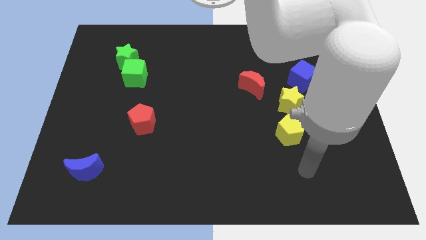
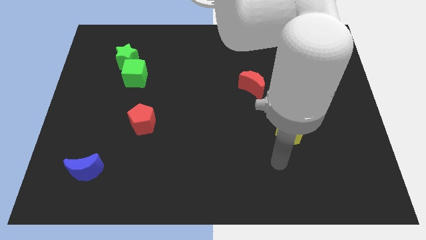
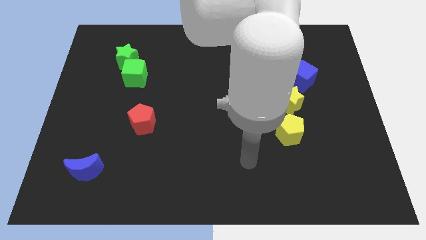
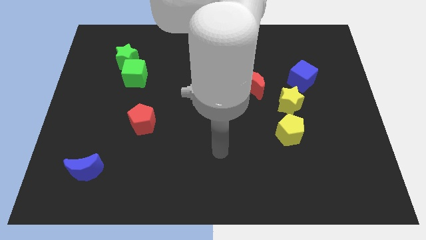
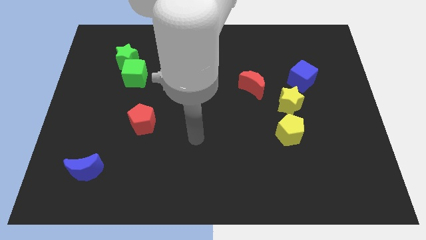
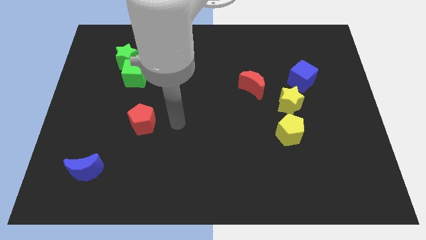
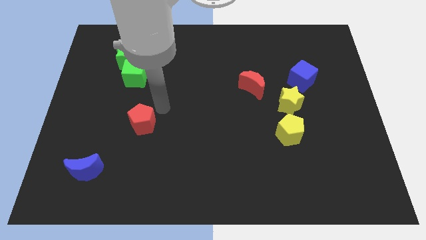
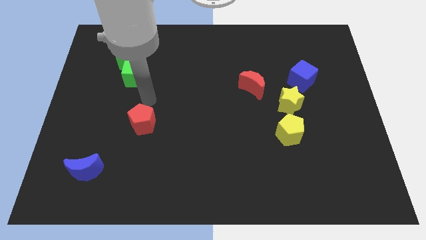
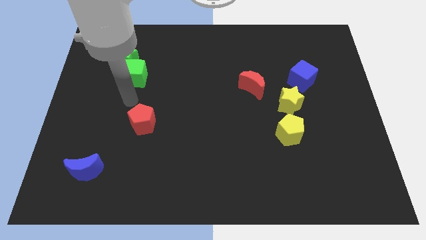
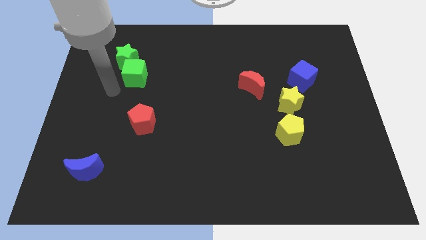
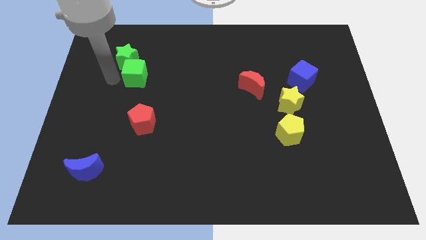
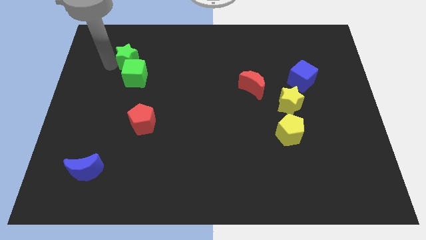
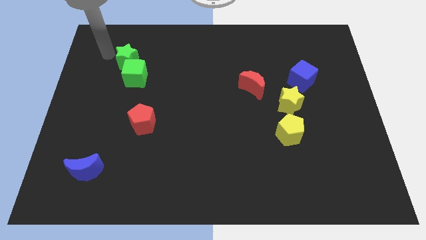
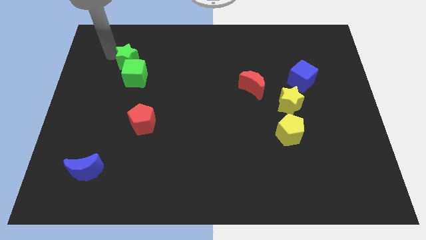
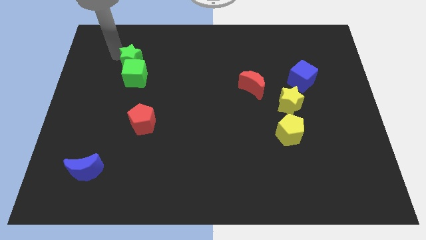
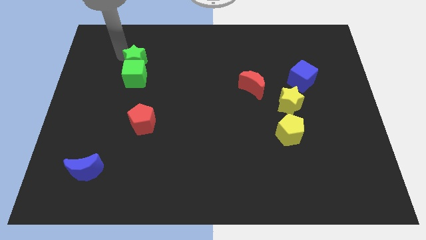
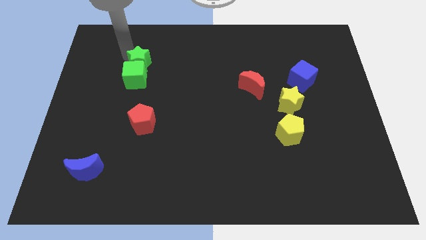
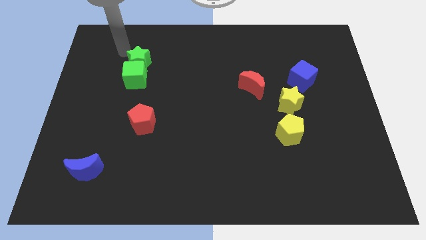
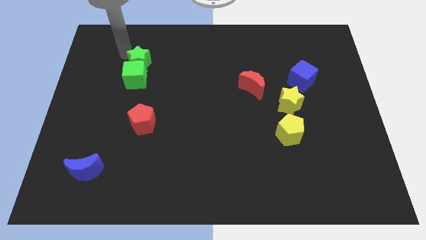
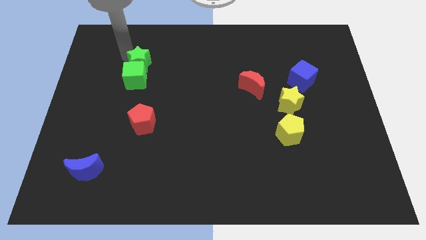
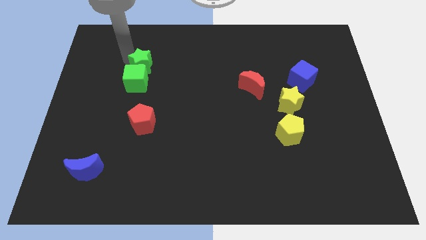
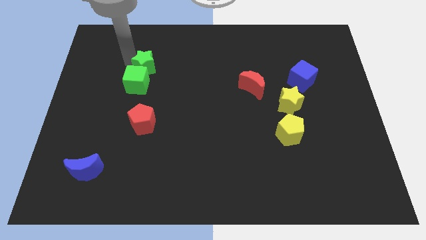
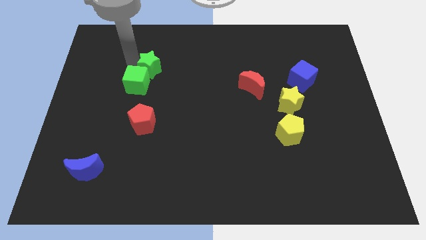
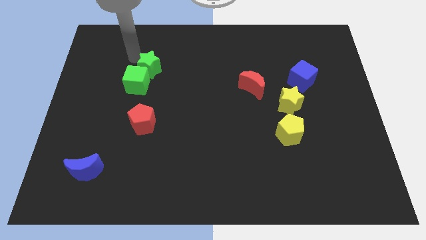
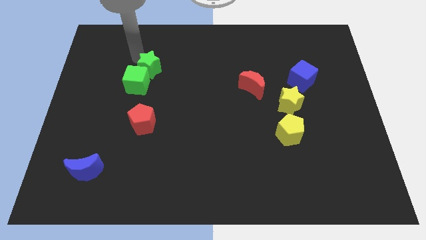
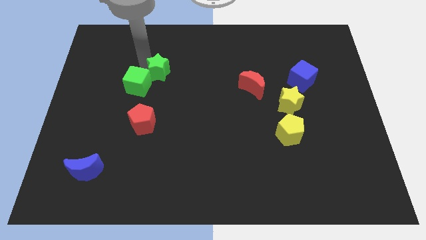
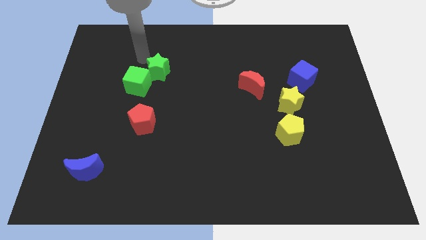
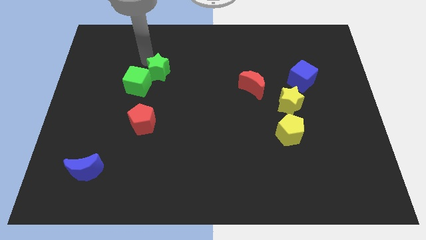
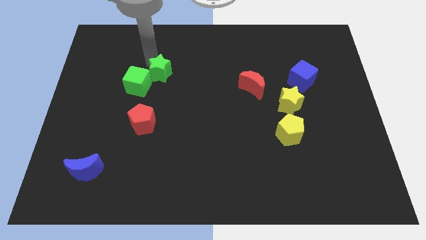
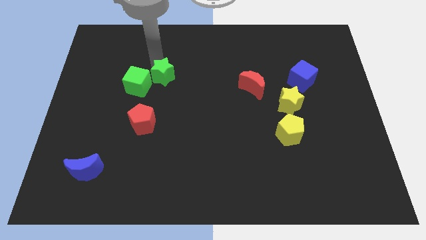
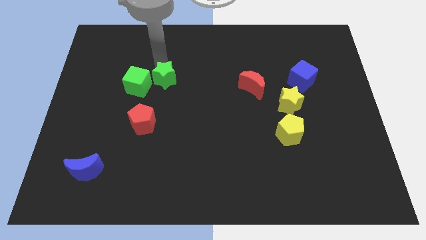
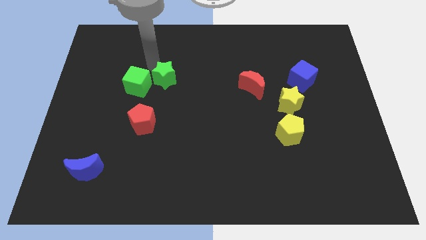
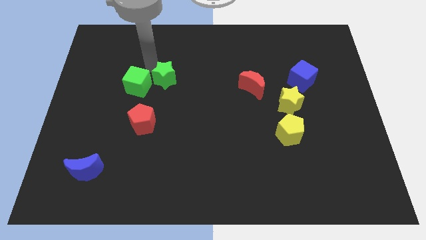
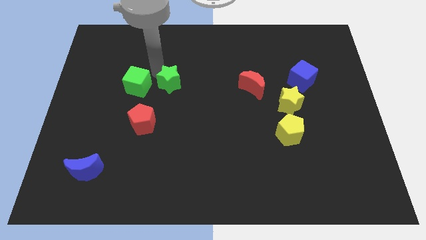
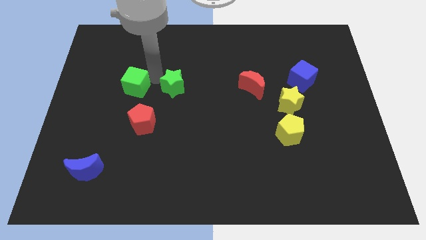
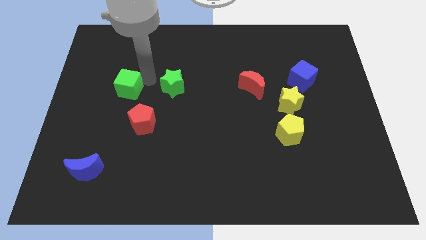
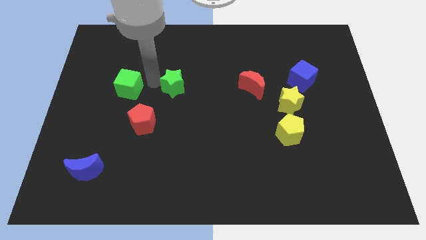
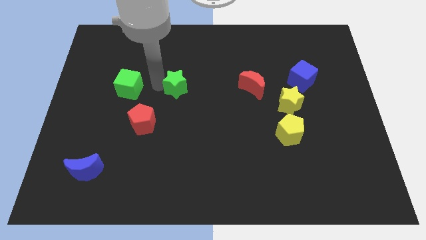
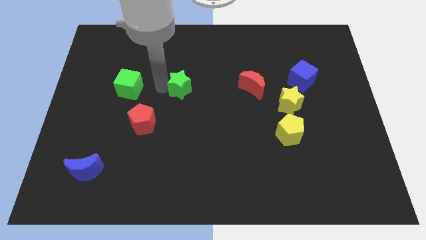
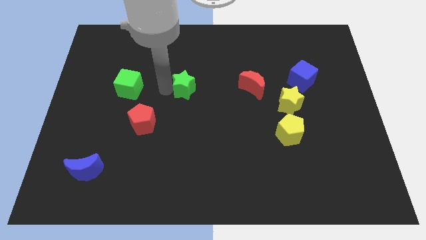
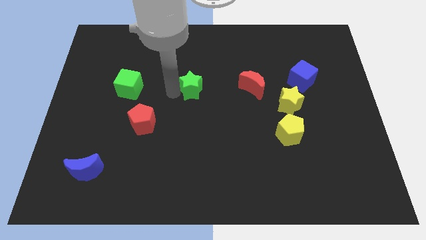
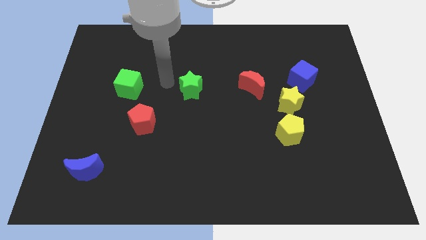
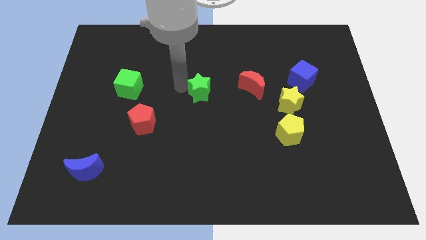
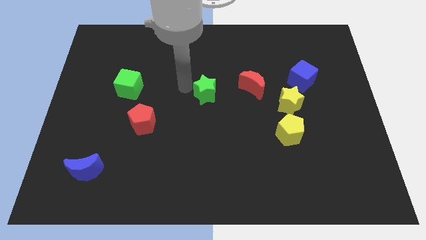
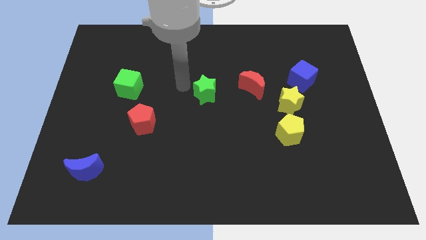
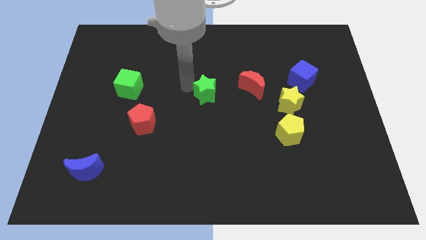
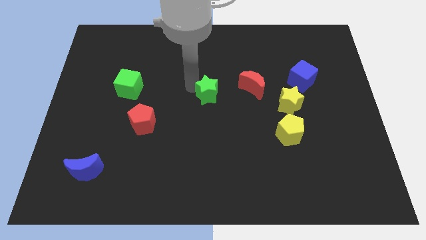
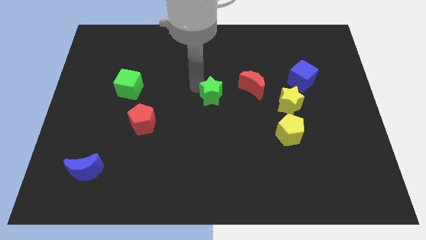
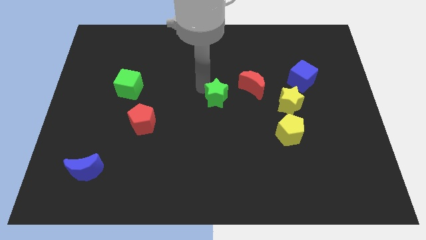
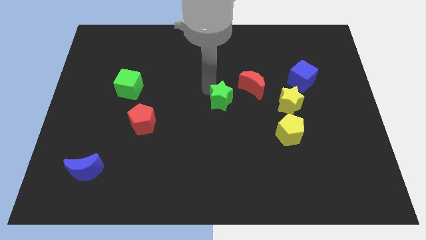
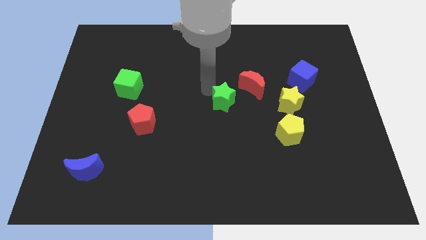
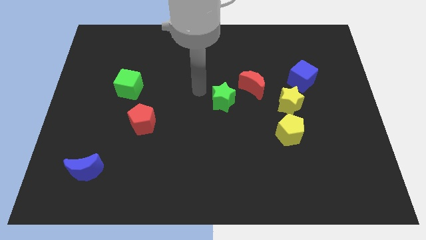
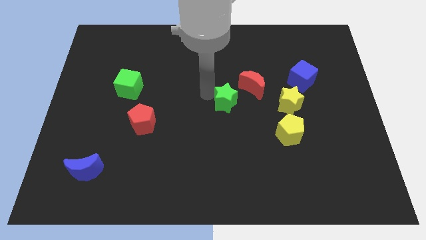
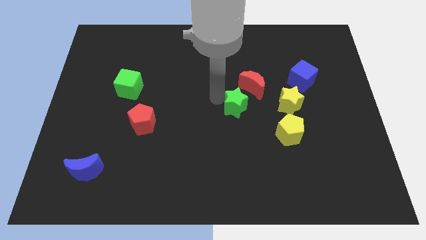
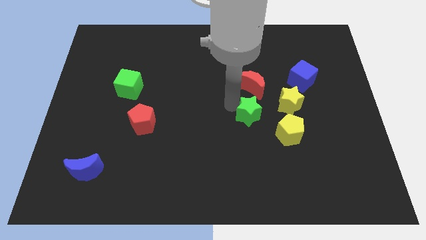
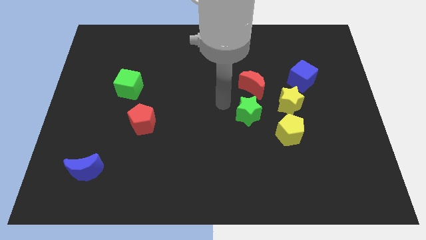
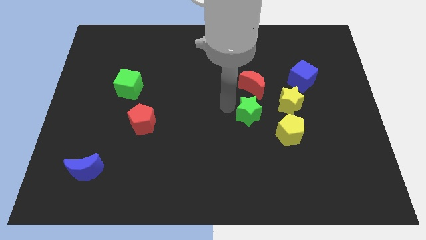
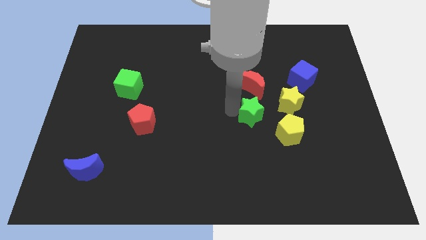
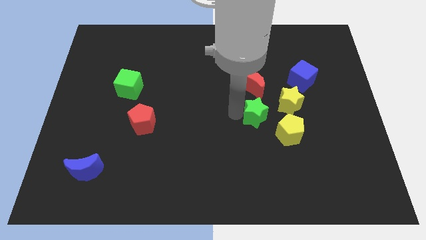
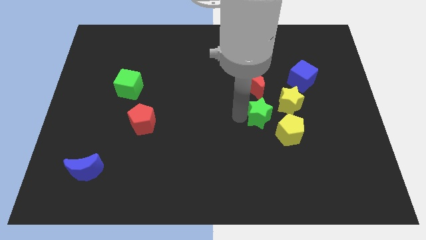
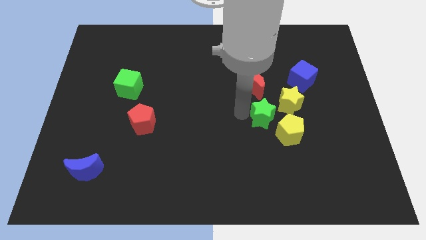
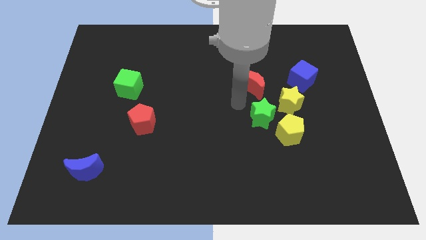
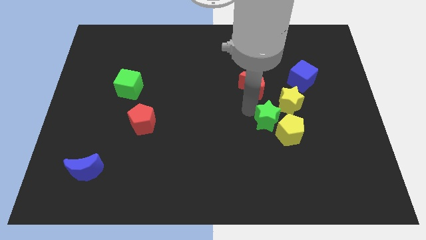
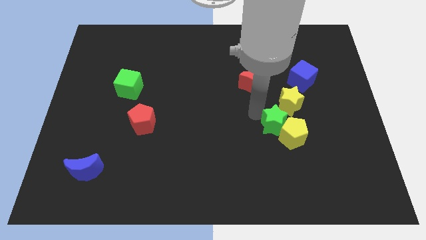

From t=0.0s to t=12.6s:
slide the green star towards the yellow pentagon

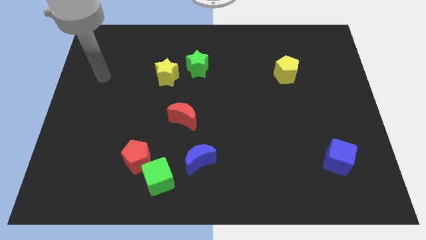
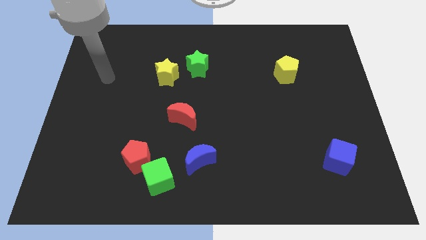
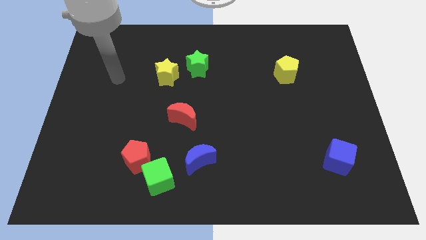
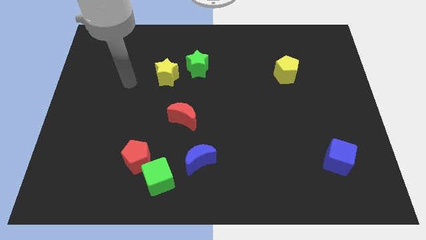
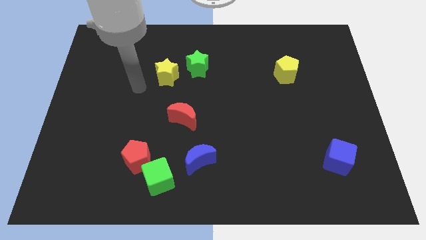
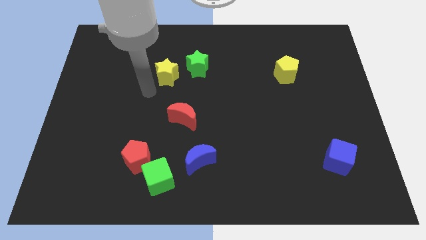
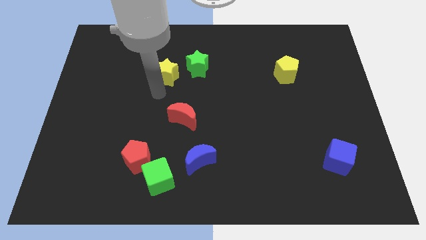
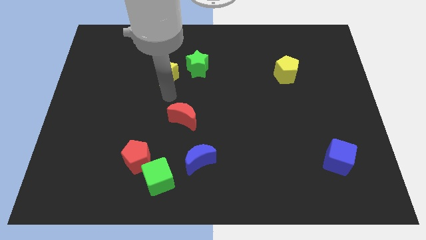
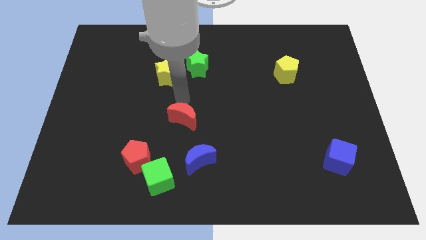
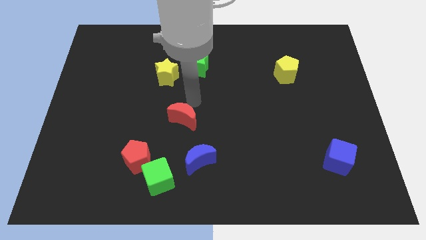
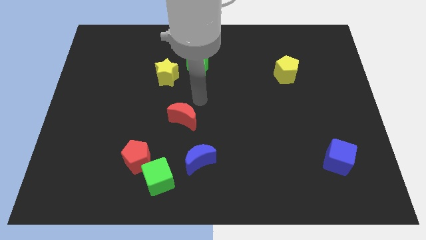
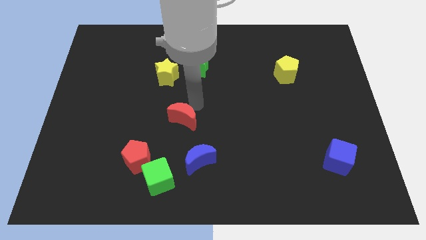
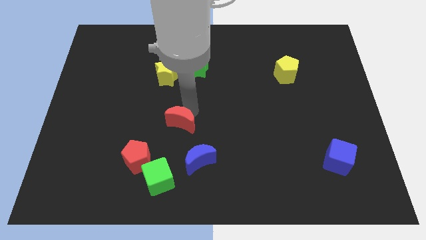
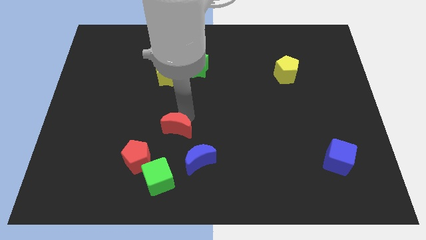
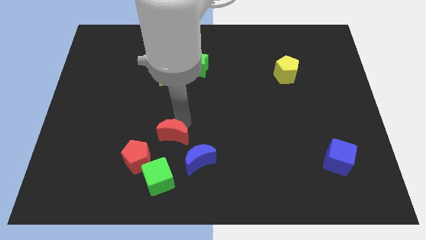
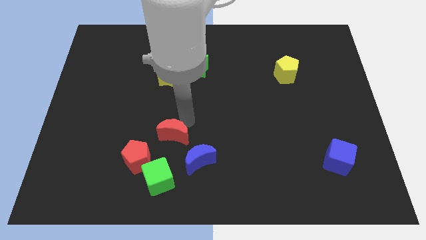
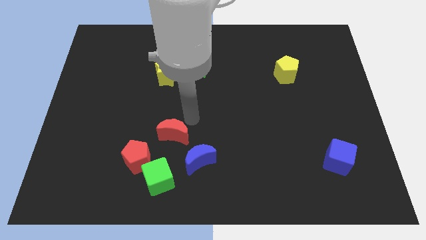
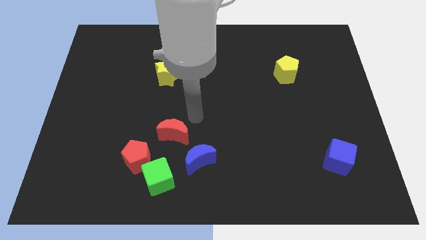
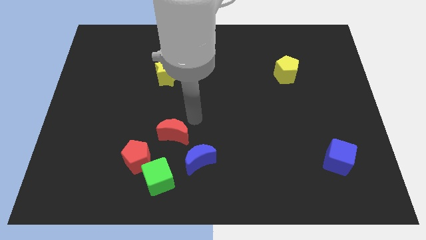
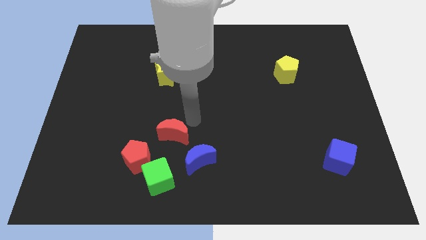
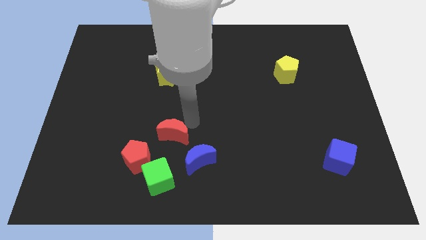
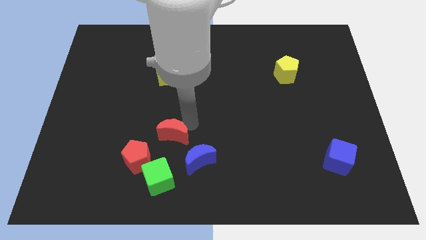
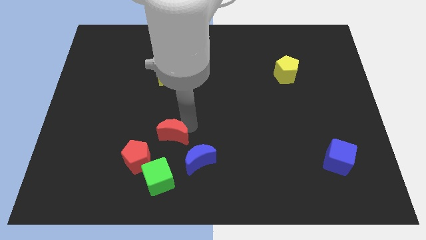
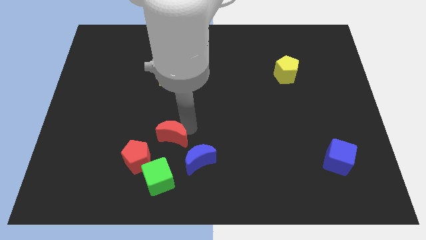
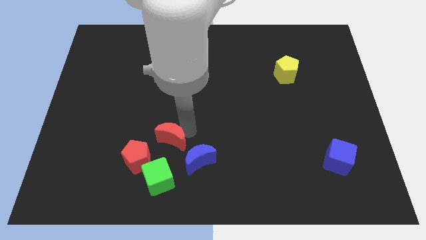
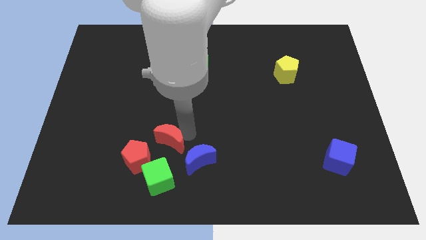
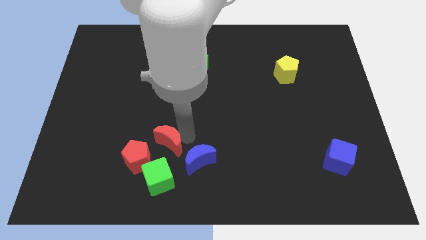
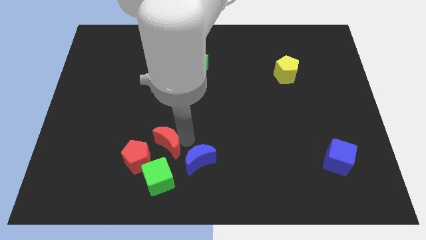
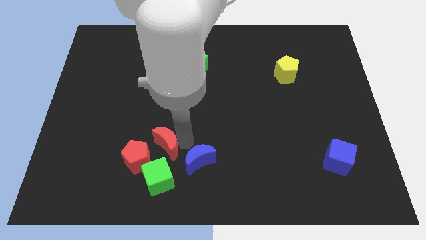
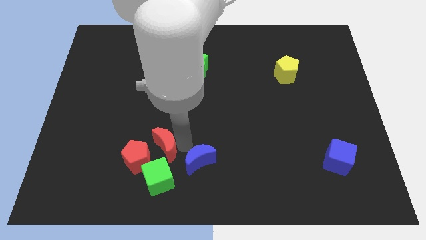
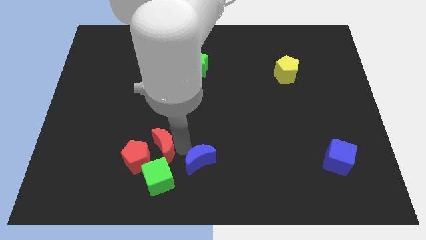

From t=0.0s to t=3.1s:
move the red moon close to the red pentagon
